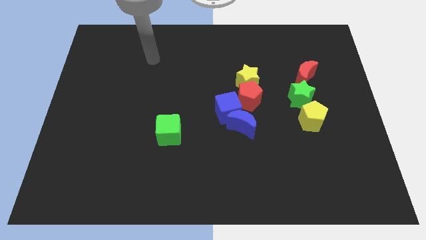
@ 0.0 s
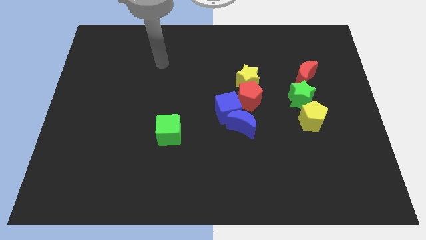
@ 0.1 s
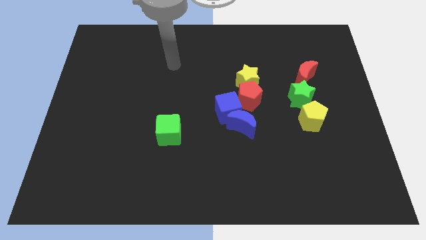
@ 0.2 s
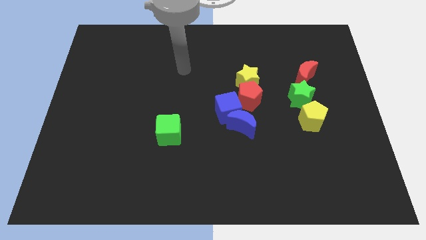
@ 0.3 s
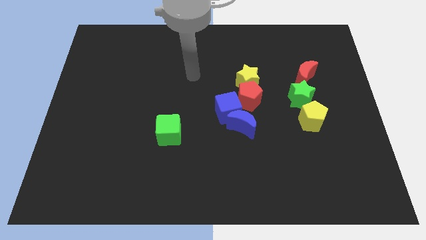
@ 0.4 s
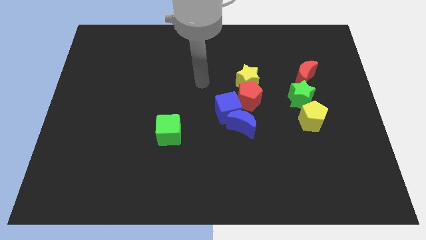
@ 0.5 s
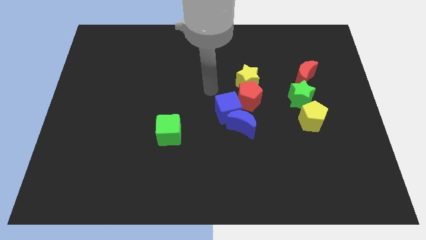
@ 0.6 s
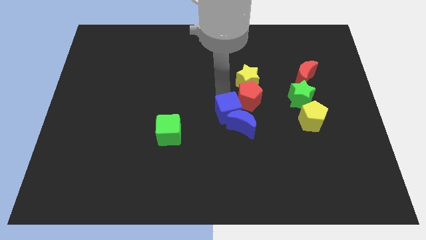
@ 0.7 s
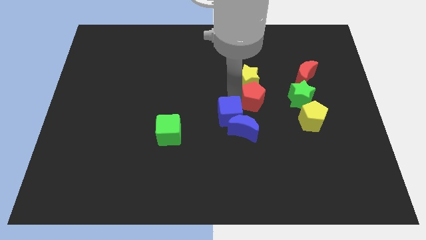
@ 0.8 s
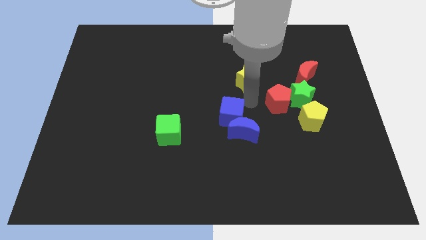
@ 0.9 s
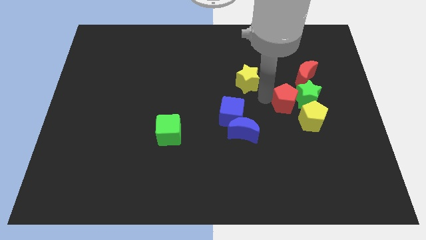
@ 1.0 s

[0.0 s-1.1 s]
move the yellow star away from the red pentagon

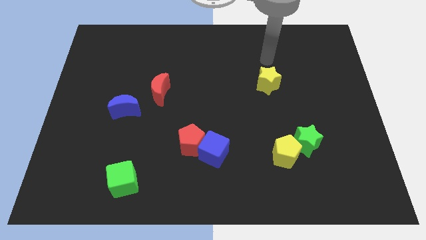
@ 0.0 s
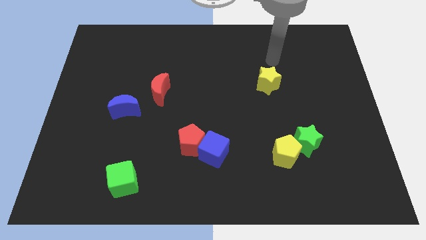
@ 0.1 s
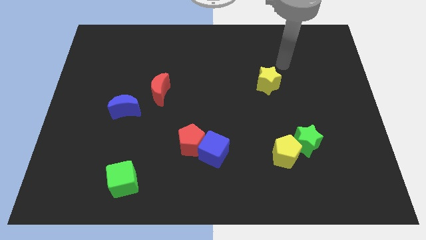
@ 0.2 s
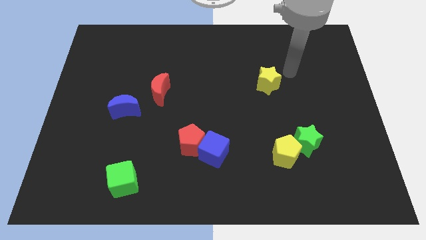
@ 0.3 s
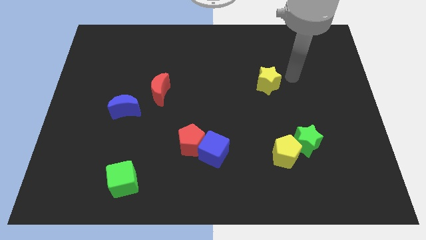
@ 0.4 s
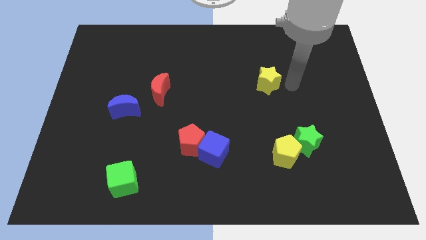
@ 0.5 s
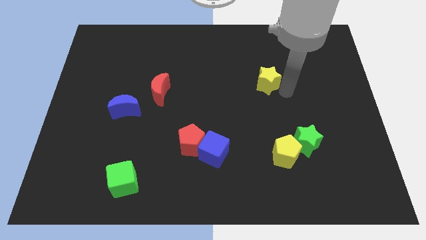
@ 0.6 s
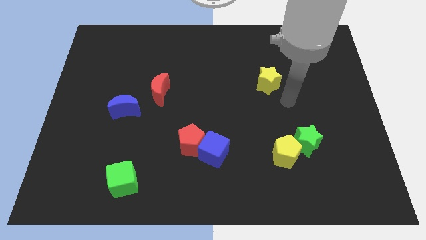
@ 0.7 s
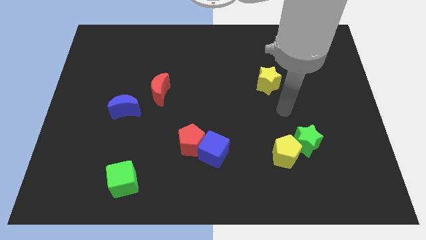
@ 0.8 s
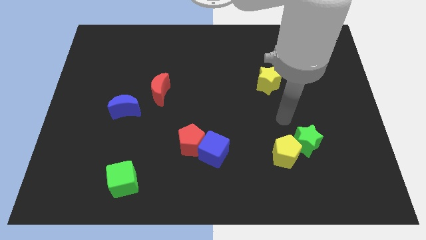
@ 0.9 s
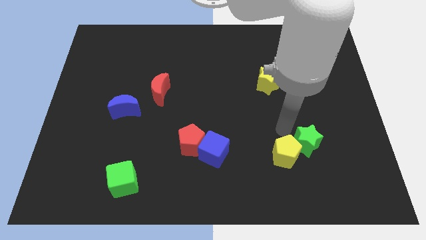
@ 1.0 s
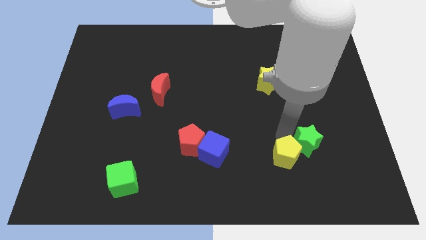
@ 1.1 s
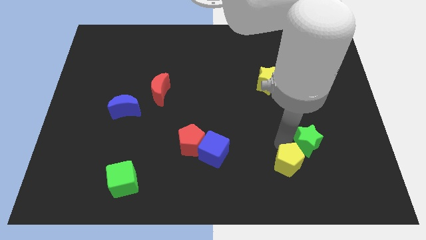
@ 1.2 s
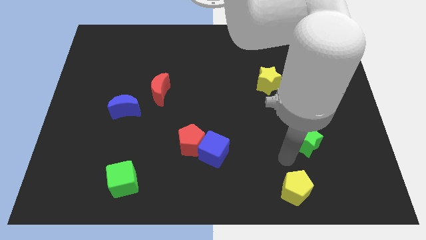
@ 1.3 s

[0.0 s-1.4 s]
move the green star away from the yellow pentagon

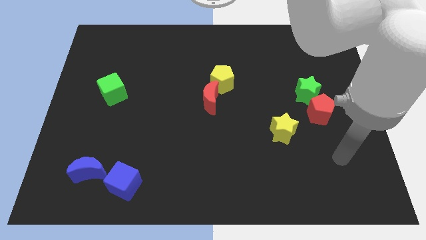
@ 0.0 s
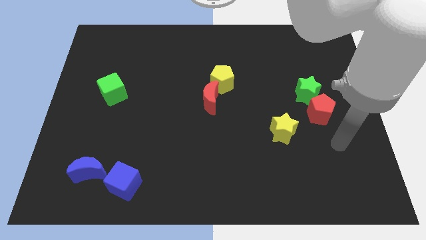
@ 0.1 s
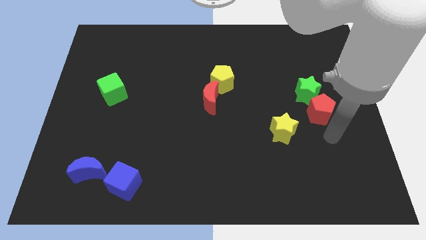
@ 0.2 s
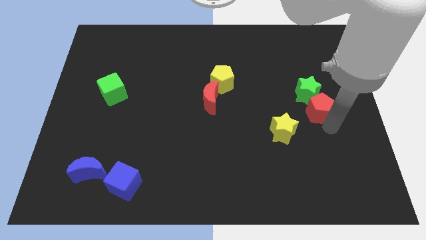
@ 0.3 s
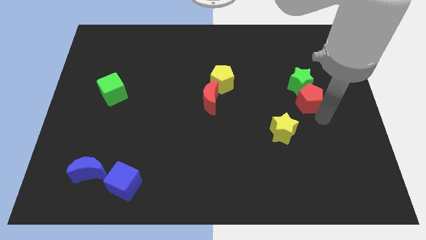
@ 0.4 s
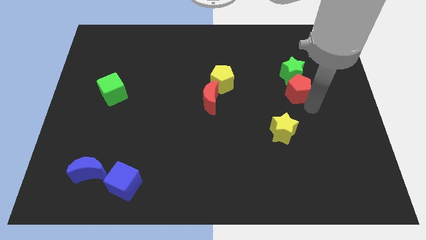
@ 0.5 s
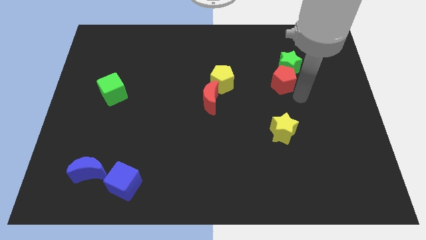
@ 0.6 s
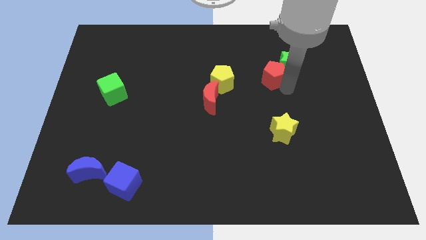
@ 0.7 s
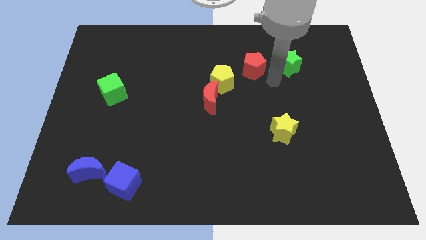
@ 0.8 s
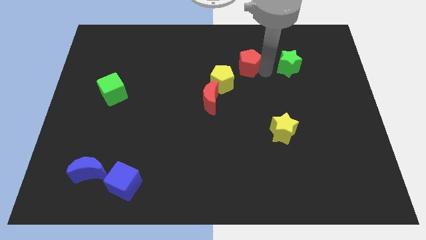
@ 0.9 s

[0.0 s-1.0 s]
move the green star away from the red pentagon

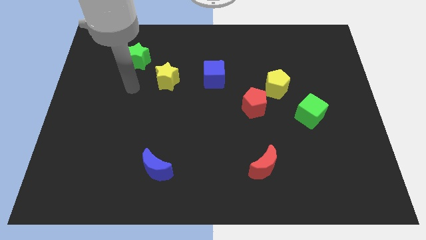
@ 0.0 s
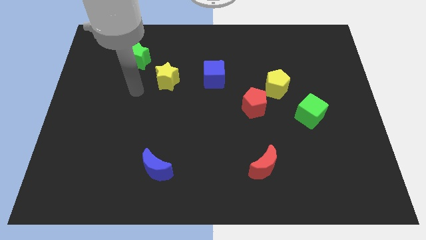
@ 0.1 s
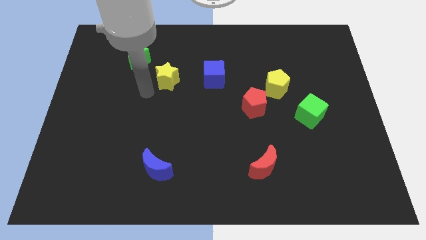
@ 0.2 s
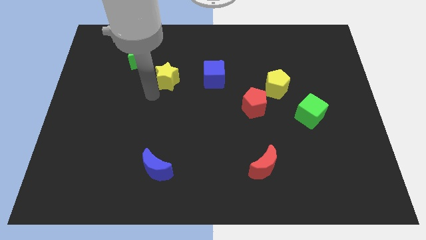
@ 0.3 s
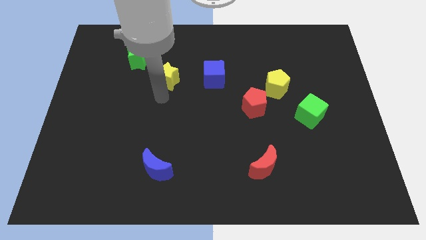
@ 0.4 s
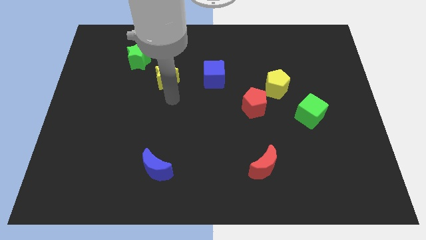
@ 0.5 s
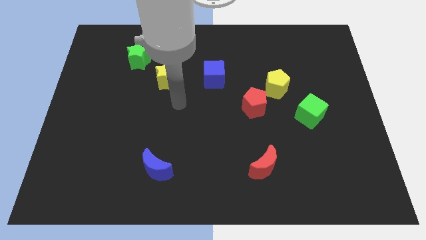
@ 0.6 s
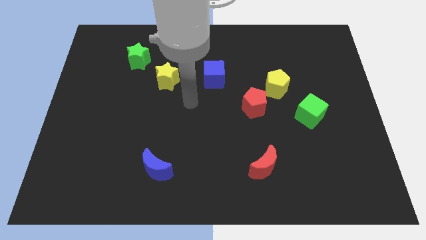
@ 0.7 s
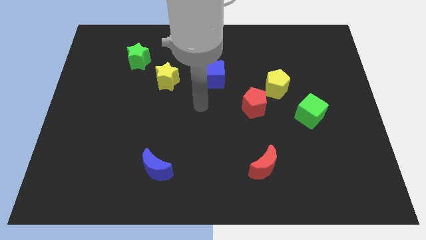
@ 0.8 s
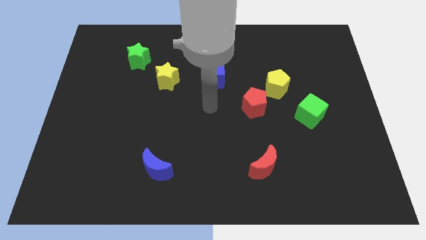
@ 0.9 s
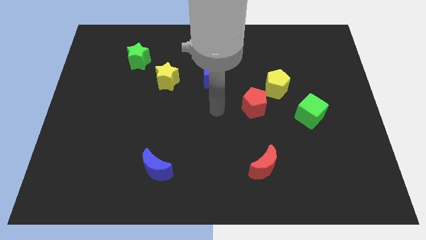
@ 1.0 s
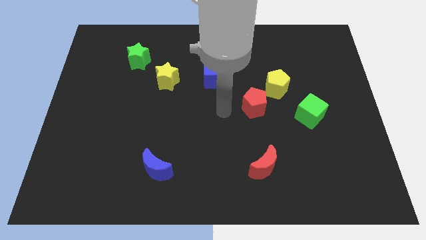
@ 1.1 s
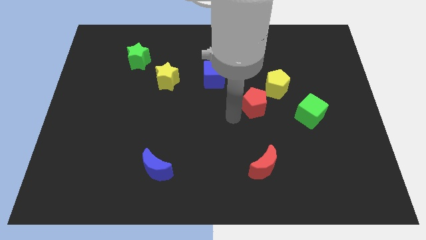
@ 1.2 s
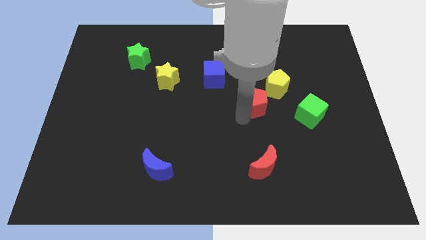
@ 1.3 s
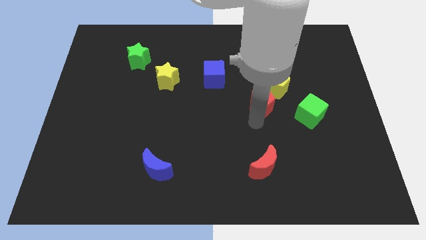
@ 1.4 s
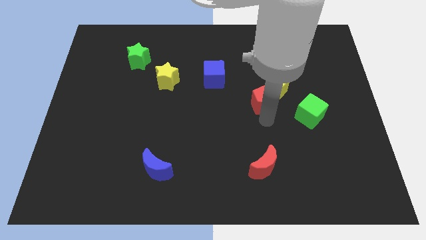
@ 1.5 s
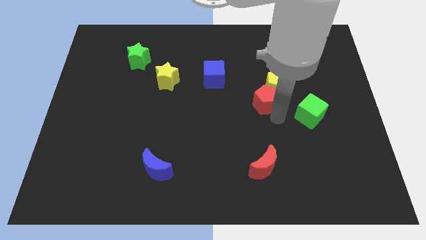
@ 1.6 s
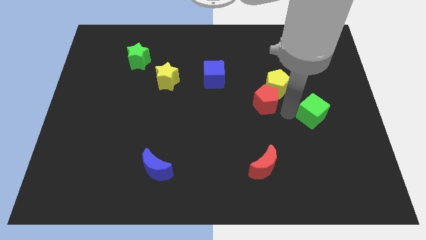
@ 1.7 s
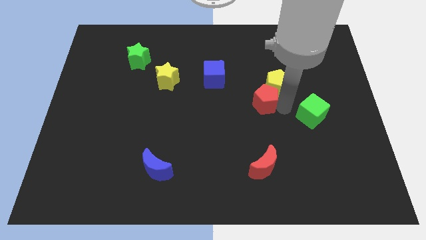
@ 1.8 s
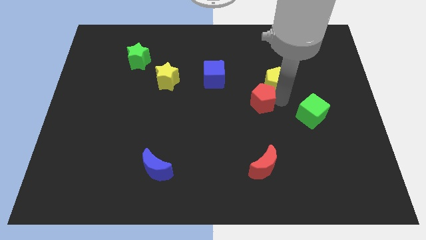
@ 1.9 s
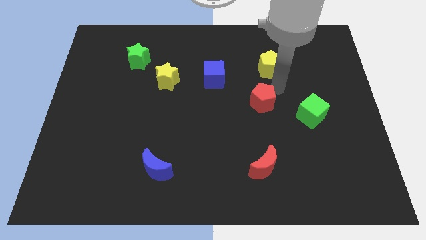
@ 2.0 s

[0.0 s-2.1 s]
separate the red pentagon from the yellow pentagon

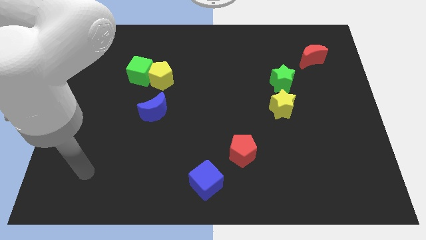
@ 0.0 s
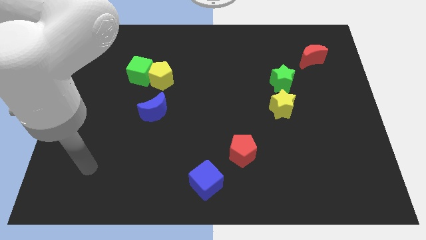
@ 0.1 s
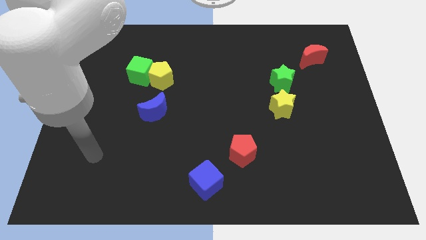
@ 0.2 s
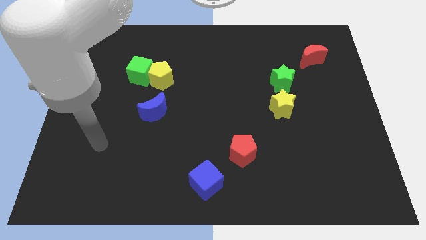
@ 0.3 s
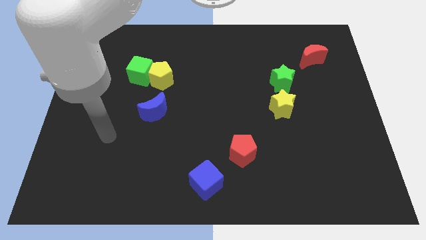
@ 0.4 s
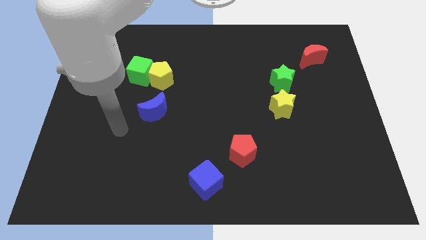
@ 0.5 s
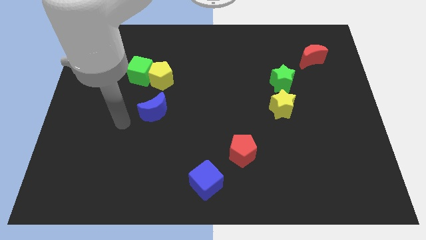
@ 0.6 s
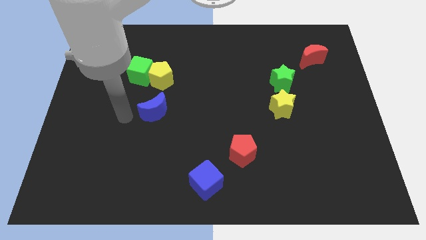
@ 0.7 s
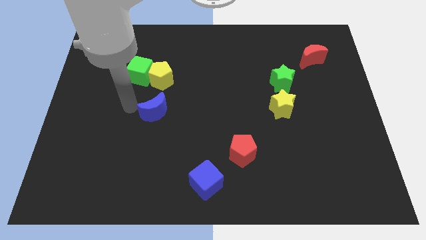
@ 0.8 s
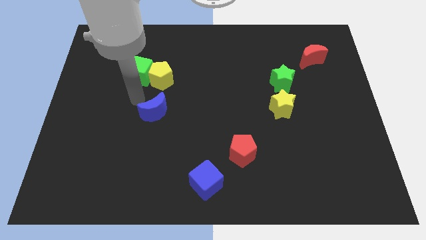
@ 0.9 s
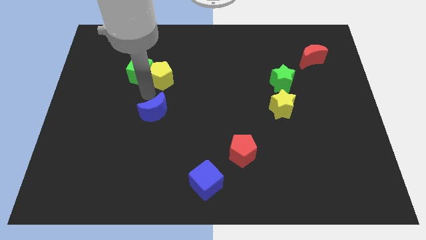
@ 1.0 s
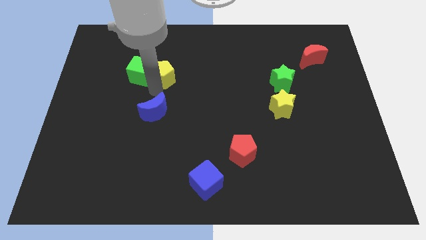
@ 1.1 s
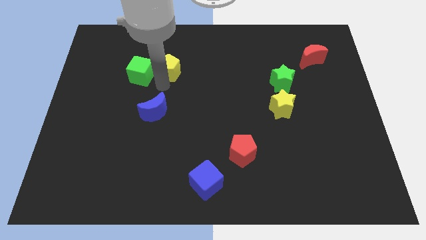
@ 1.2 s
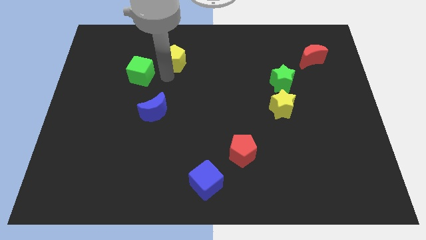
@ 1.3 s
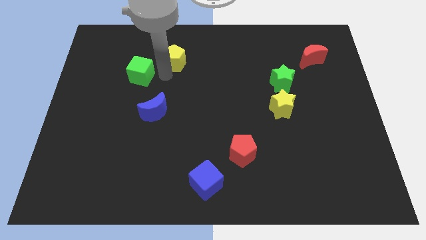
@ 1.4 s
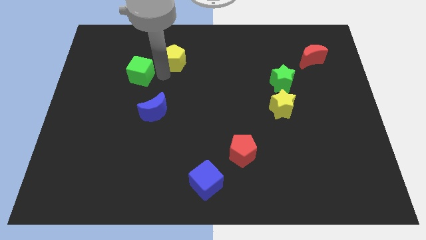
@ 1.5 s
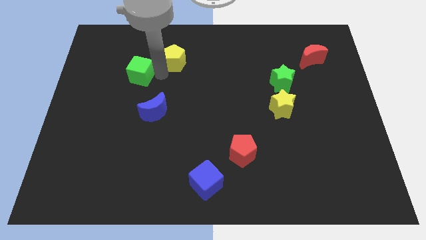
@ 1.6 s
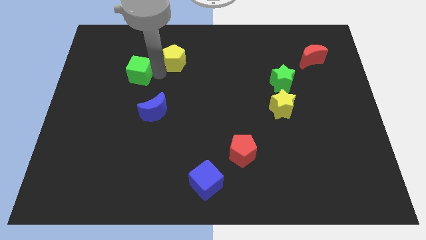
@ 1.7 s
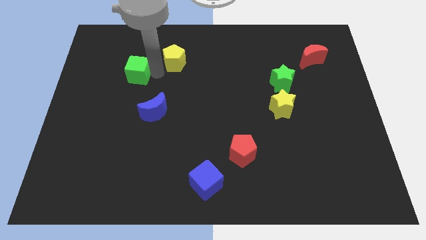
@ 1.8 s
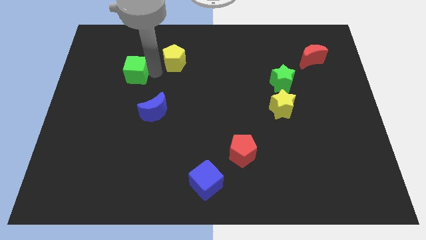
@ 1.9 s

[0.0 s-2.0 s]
move the green cube away from the yellow pentagon

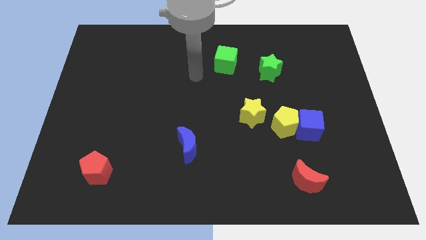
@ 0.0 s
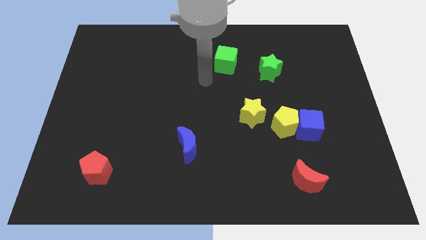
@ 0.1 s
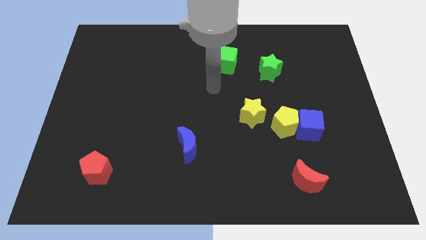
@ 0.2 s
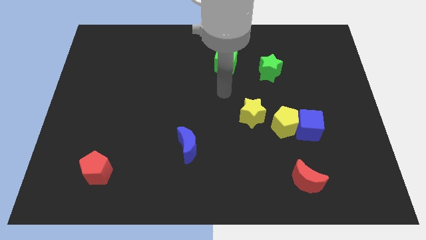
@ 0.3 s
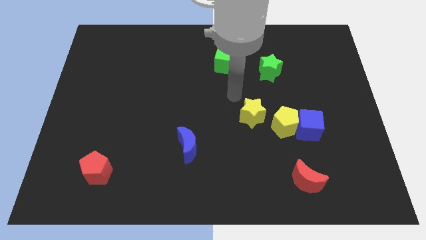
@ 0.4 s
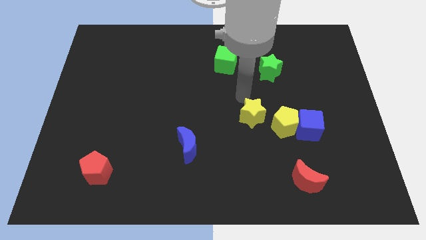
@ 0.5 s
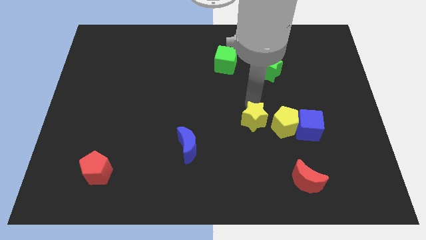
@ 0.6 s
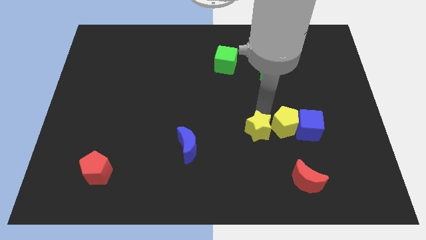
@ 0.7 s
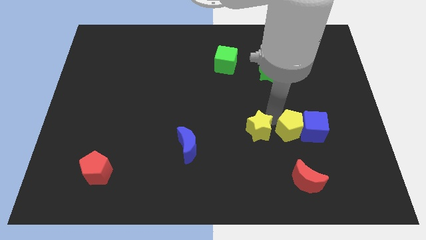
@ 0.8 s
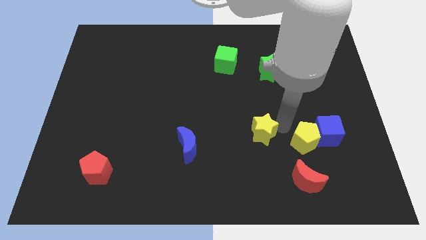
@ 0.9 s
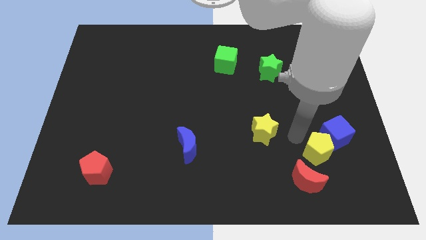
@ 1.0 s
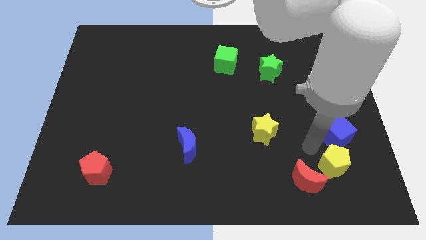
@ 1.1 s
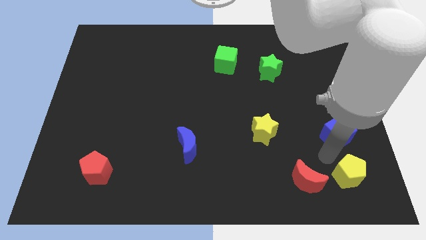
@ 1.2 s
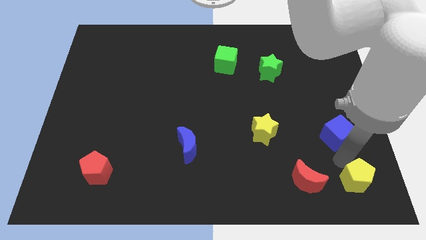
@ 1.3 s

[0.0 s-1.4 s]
separate the blue cube from the yellow pentagon

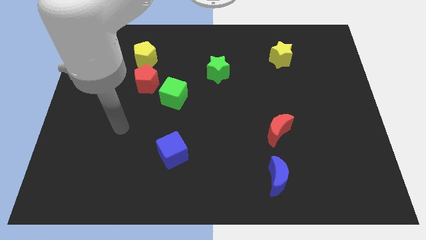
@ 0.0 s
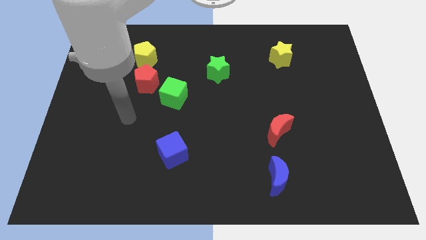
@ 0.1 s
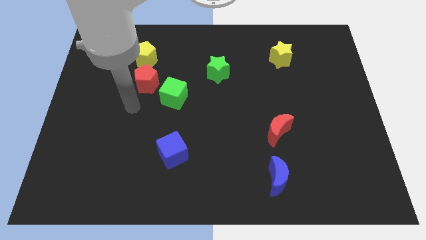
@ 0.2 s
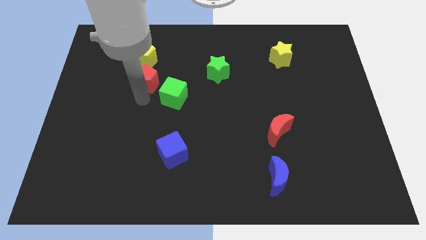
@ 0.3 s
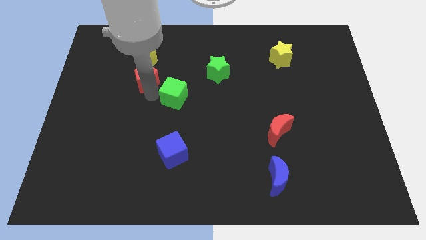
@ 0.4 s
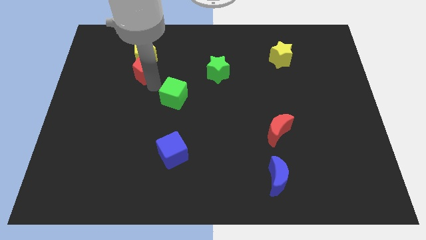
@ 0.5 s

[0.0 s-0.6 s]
separate the green cube from the red pentagon
